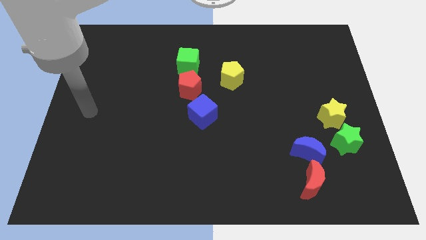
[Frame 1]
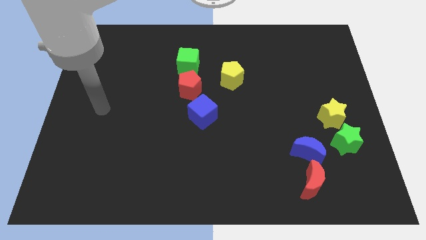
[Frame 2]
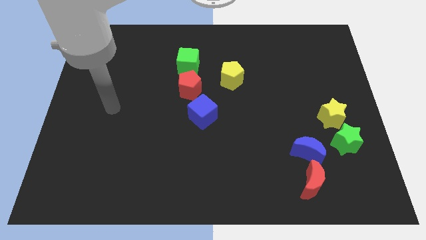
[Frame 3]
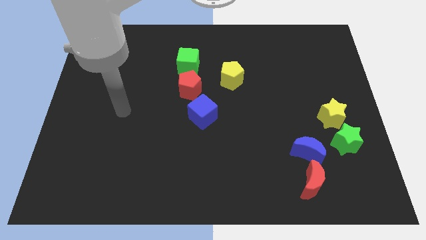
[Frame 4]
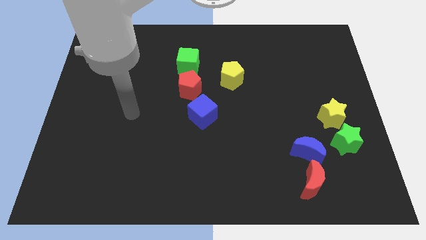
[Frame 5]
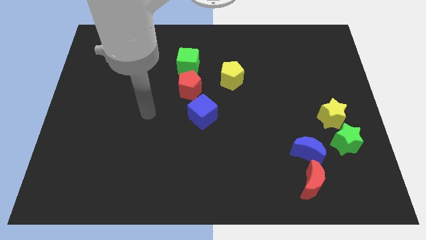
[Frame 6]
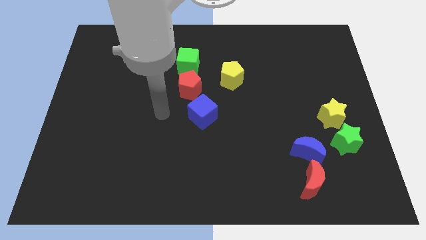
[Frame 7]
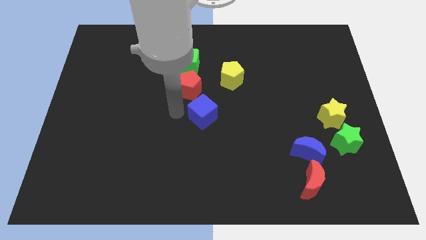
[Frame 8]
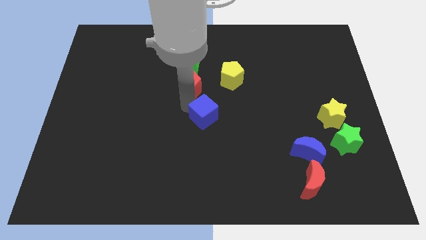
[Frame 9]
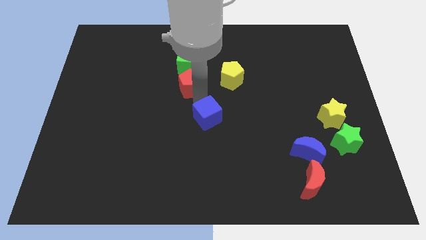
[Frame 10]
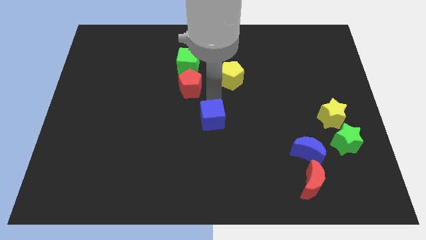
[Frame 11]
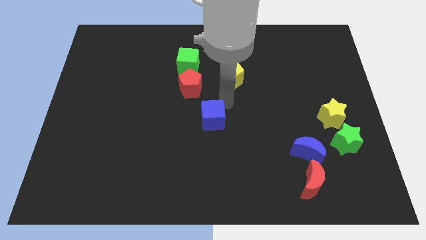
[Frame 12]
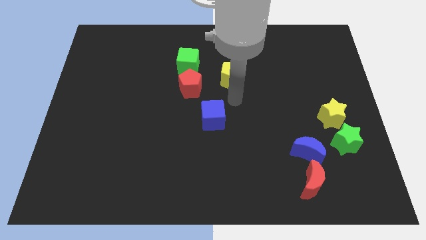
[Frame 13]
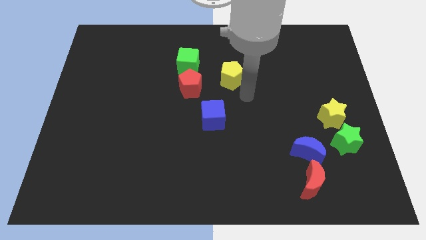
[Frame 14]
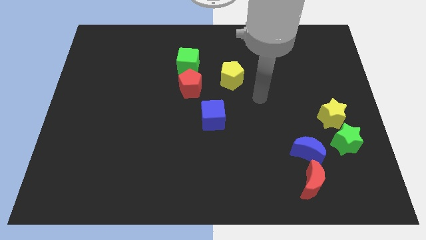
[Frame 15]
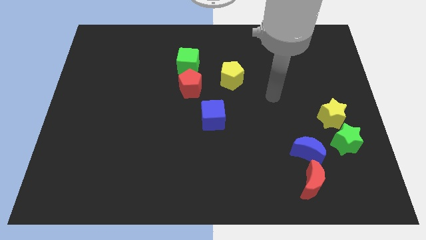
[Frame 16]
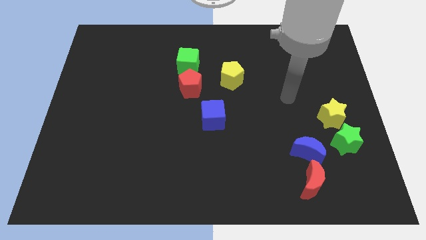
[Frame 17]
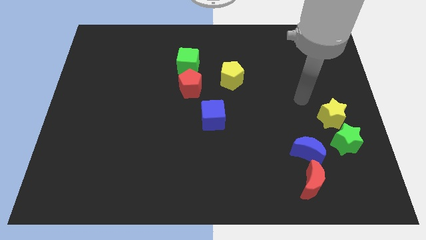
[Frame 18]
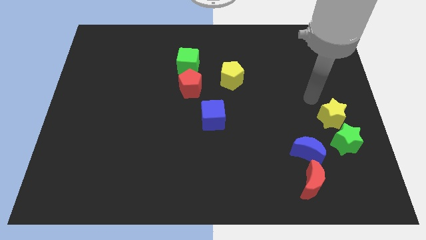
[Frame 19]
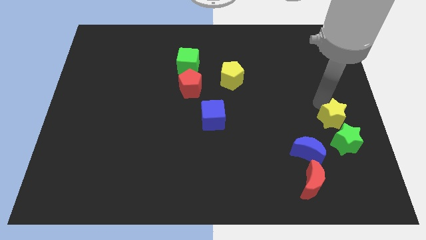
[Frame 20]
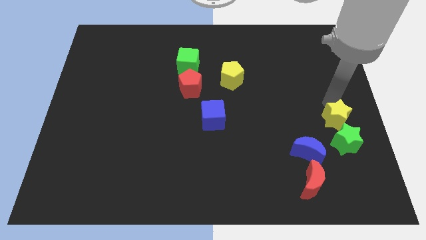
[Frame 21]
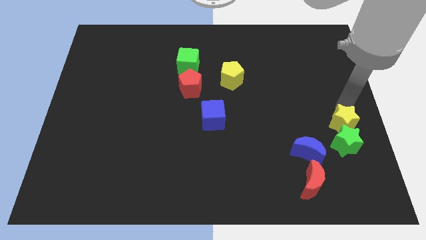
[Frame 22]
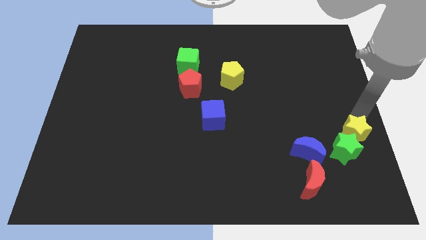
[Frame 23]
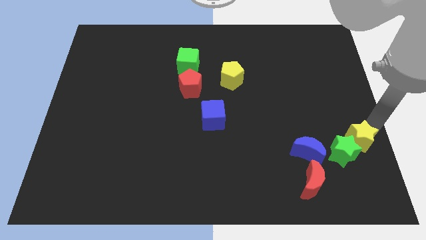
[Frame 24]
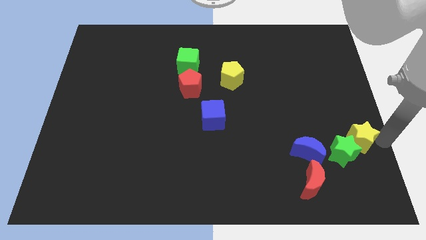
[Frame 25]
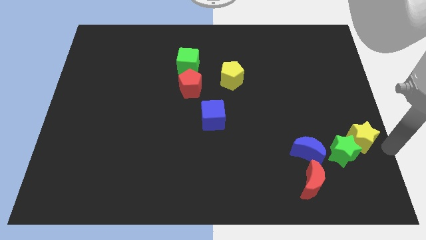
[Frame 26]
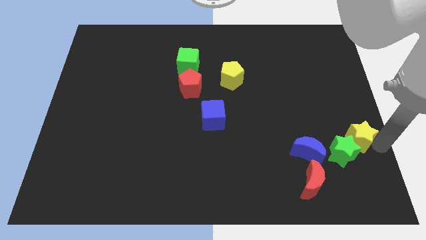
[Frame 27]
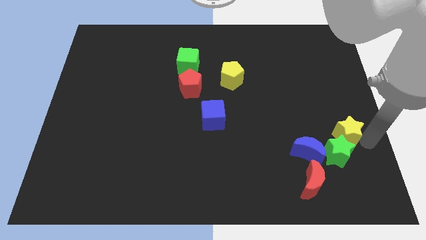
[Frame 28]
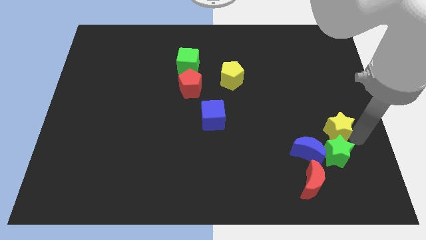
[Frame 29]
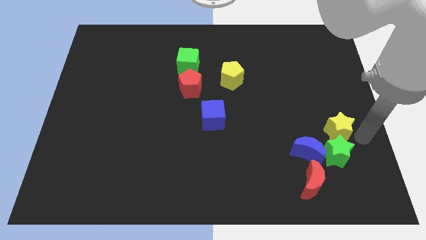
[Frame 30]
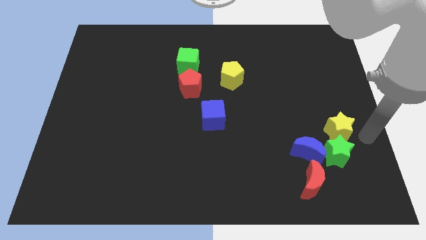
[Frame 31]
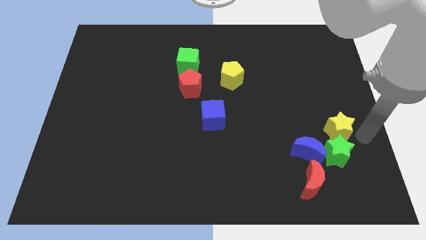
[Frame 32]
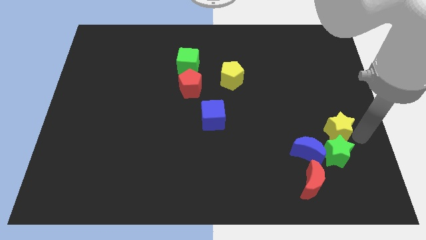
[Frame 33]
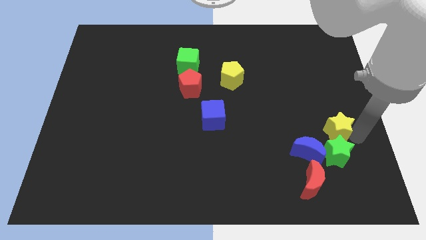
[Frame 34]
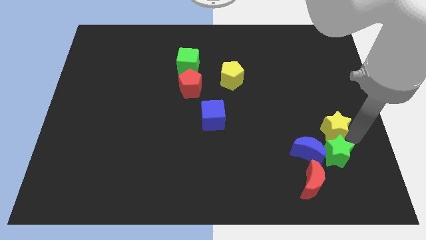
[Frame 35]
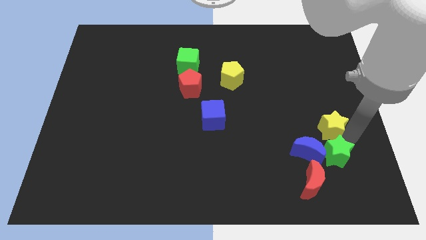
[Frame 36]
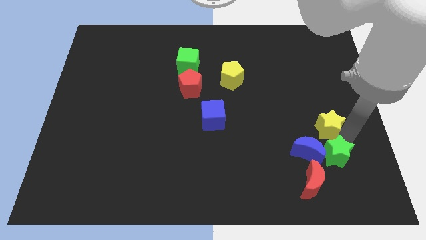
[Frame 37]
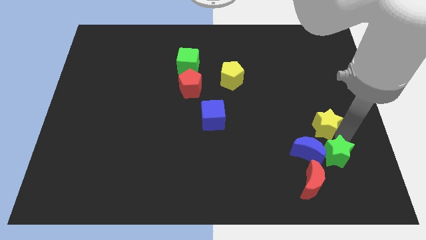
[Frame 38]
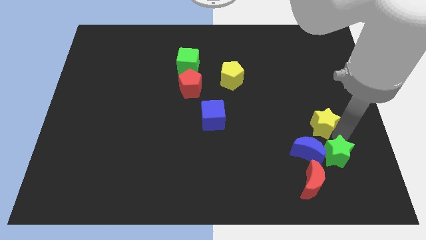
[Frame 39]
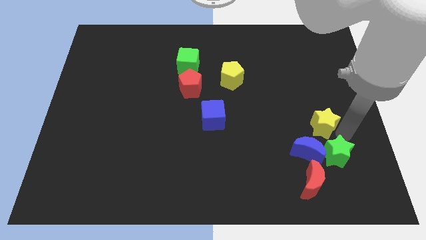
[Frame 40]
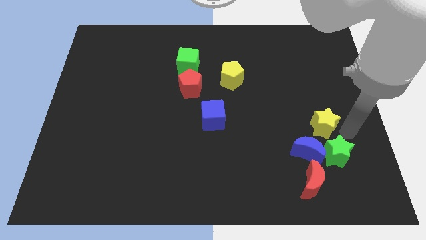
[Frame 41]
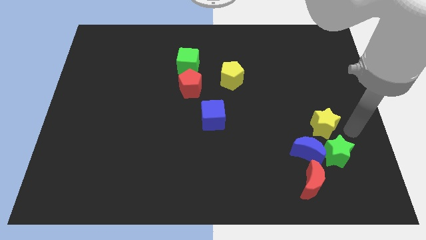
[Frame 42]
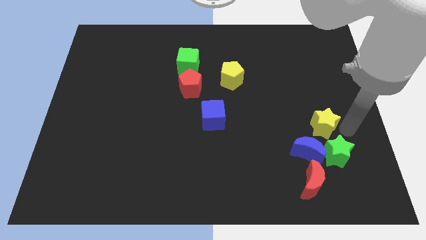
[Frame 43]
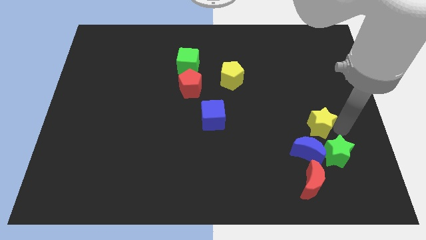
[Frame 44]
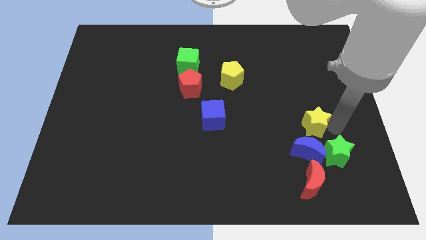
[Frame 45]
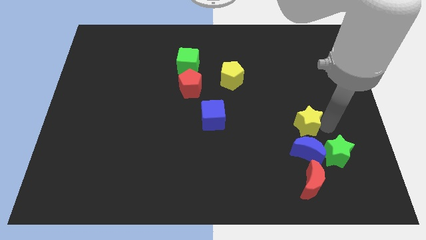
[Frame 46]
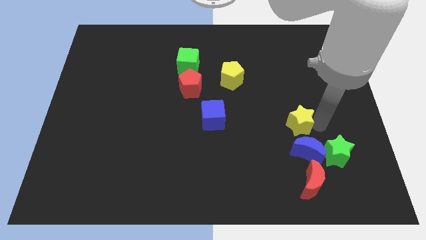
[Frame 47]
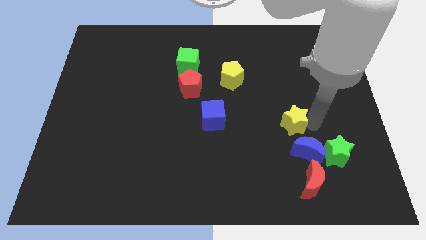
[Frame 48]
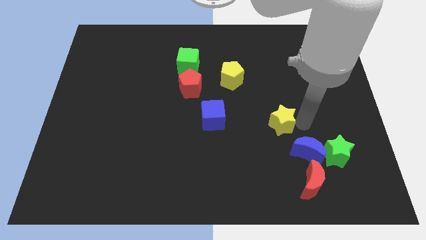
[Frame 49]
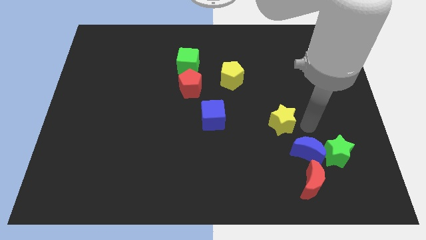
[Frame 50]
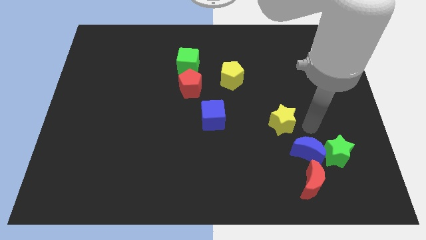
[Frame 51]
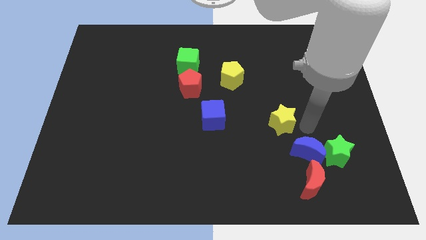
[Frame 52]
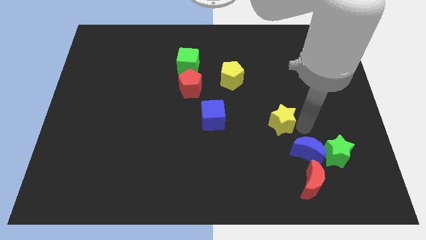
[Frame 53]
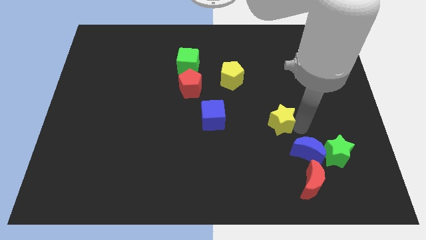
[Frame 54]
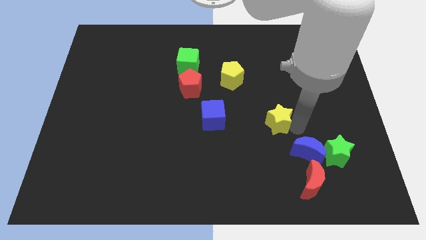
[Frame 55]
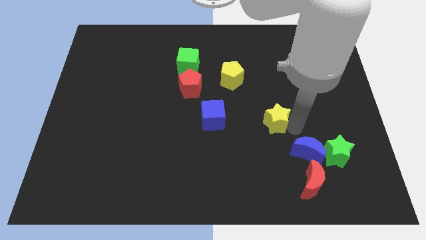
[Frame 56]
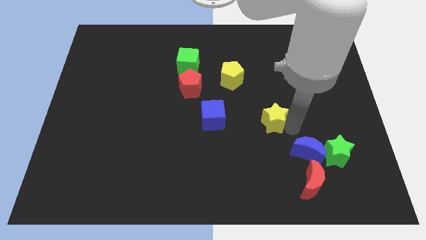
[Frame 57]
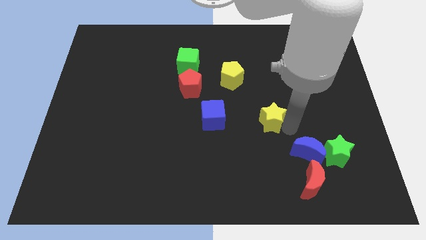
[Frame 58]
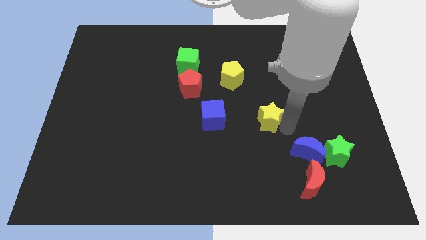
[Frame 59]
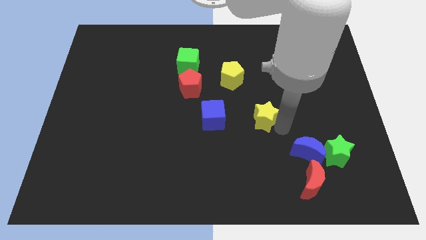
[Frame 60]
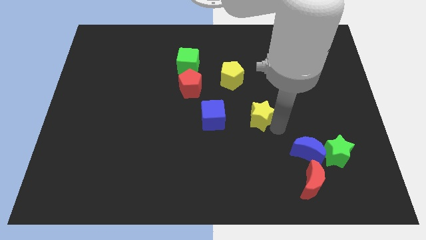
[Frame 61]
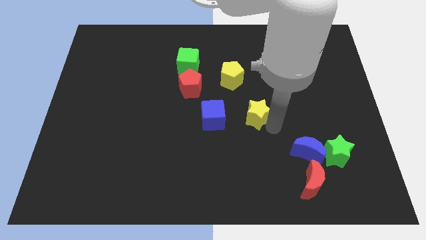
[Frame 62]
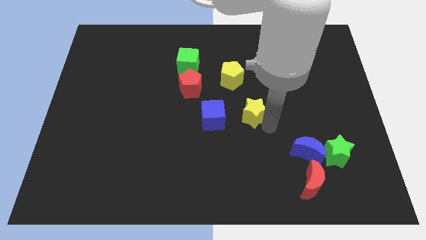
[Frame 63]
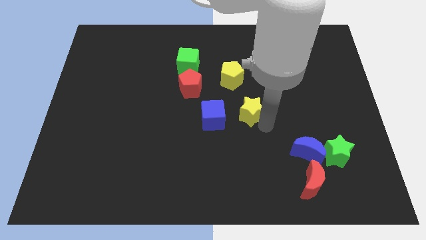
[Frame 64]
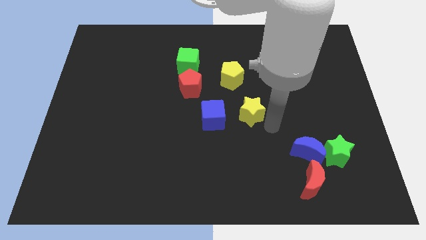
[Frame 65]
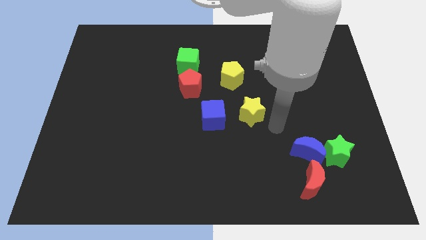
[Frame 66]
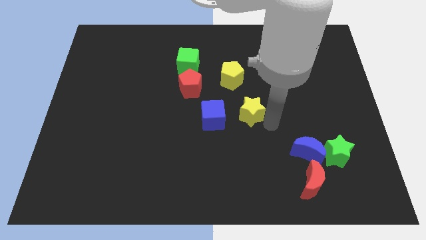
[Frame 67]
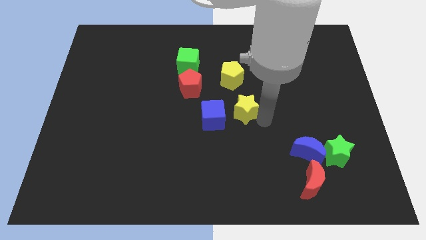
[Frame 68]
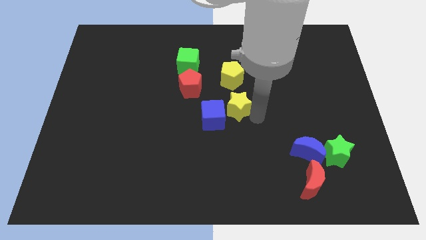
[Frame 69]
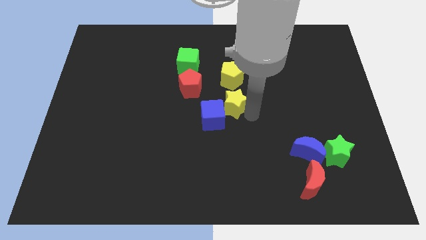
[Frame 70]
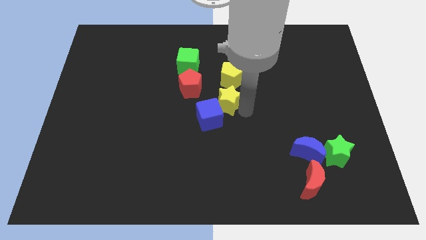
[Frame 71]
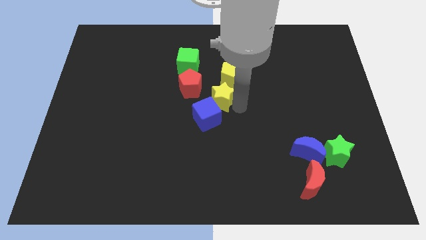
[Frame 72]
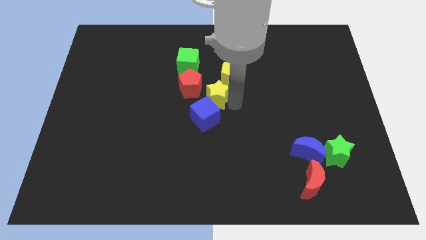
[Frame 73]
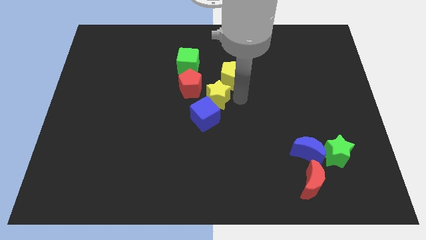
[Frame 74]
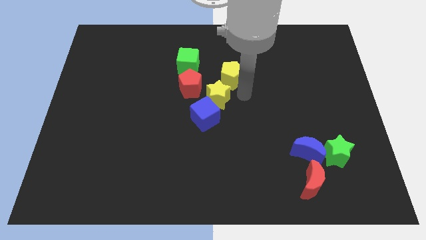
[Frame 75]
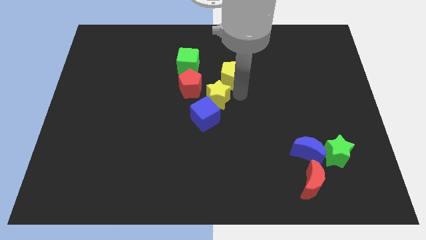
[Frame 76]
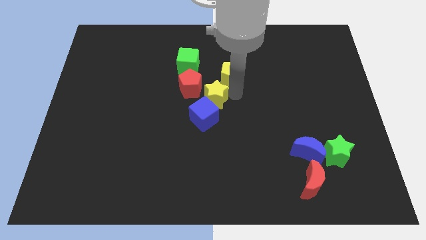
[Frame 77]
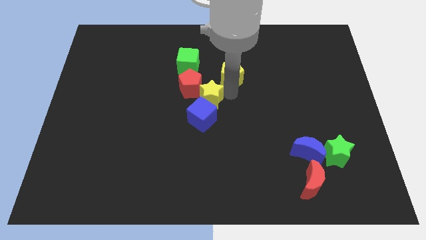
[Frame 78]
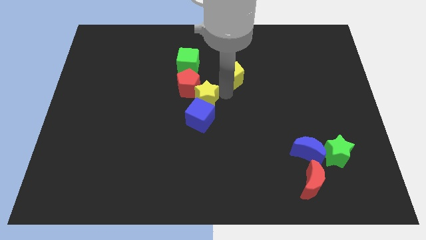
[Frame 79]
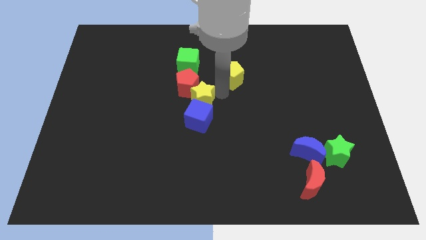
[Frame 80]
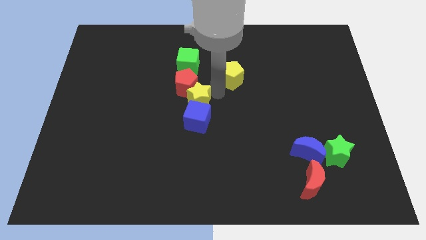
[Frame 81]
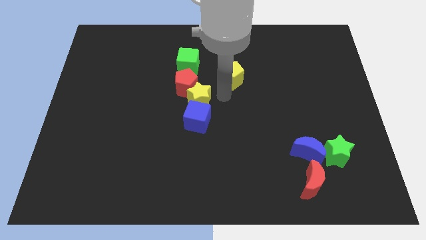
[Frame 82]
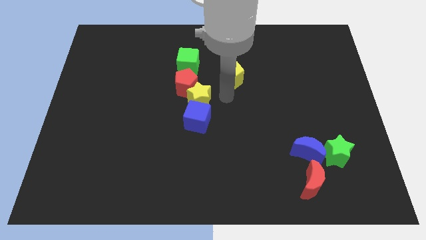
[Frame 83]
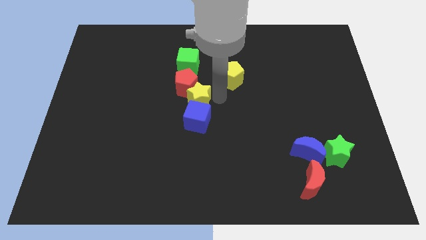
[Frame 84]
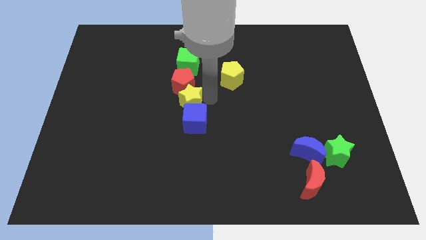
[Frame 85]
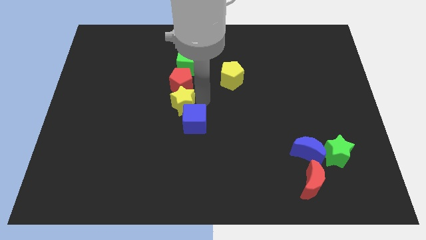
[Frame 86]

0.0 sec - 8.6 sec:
move the yellow star diagonally down and to the left of the red pentagon
